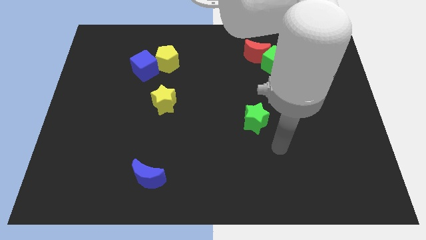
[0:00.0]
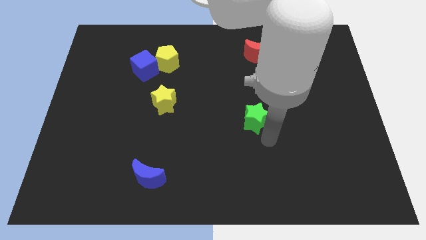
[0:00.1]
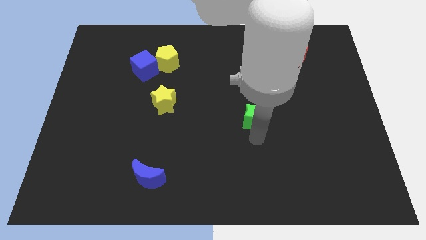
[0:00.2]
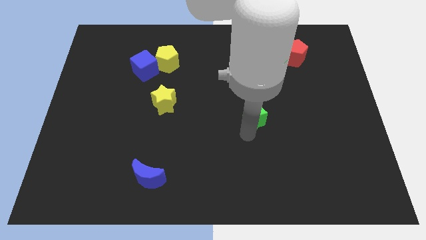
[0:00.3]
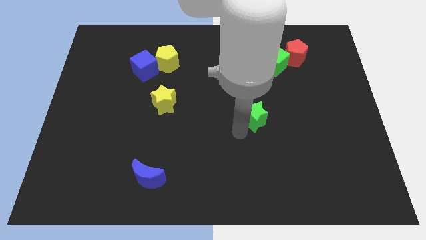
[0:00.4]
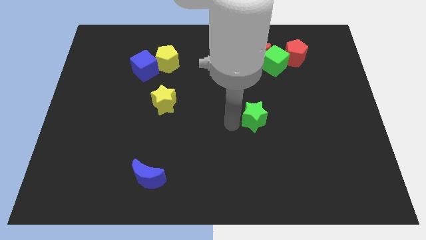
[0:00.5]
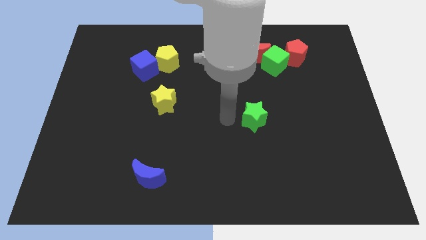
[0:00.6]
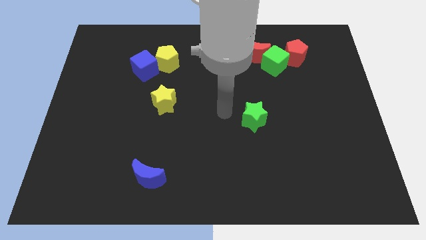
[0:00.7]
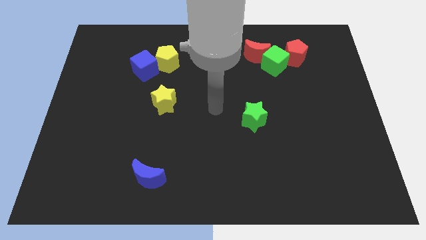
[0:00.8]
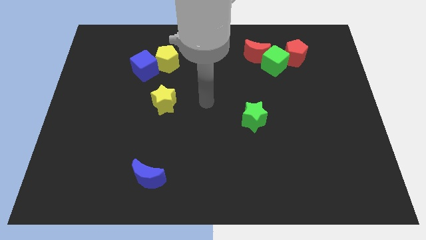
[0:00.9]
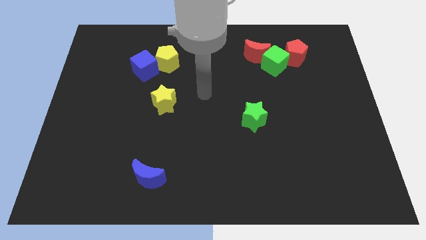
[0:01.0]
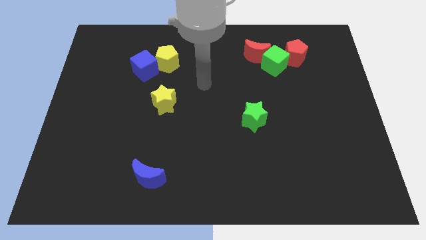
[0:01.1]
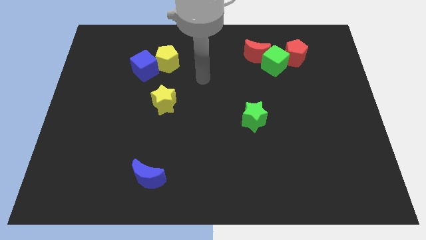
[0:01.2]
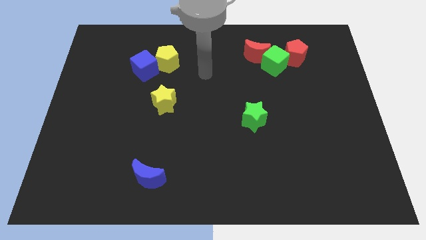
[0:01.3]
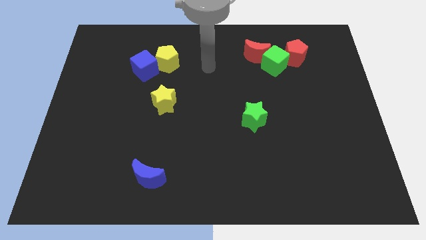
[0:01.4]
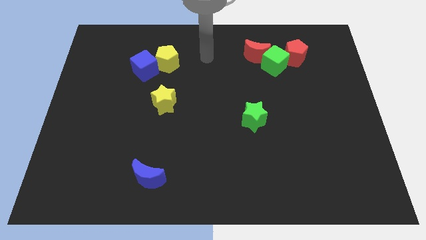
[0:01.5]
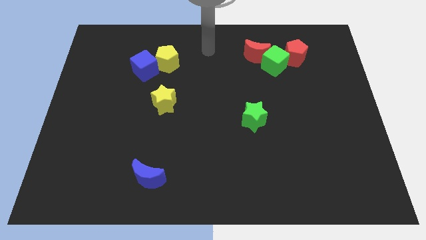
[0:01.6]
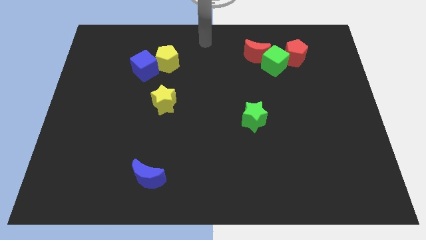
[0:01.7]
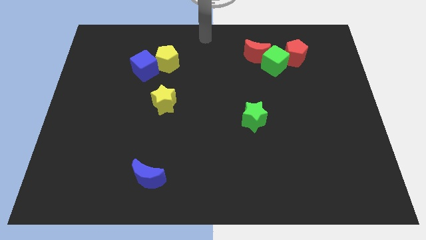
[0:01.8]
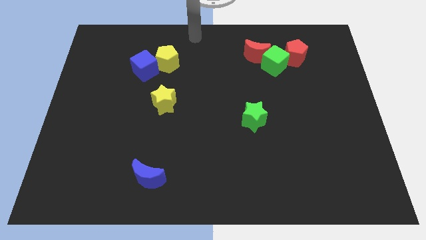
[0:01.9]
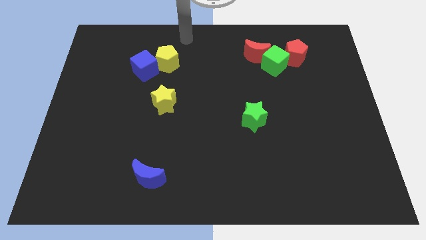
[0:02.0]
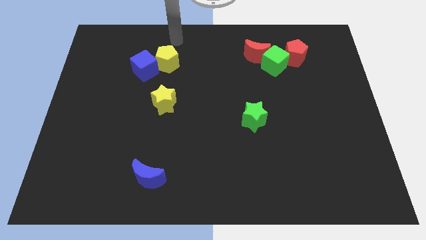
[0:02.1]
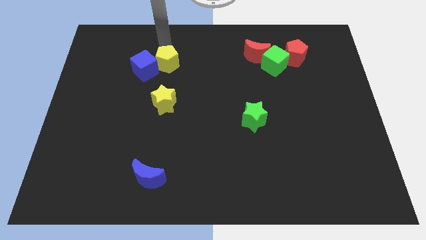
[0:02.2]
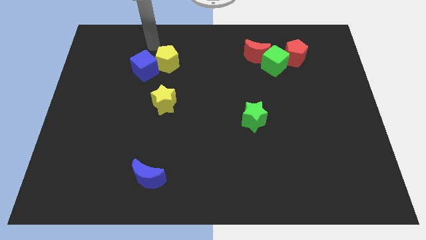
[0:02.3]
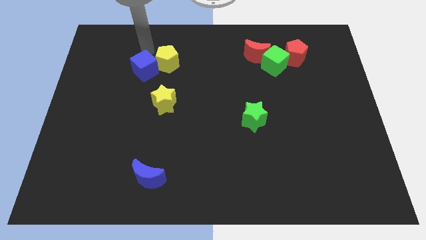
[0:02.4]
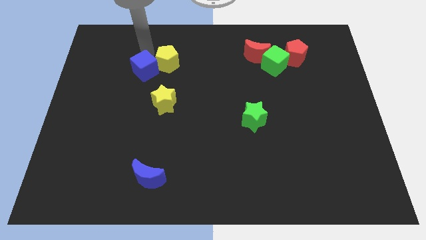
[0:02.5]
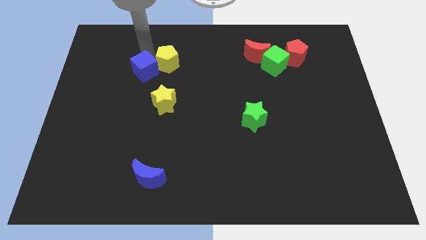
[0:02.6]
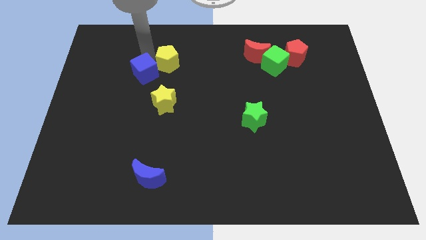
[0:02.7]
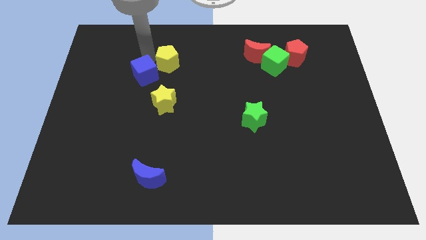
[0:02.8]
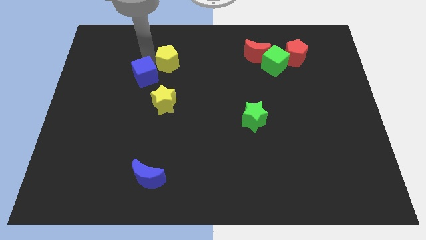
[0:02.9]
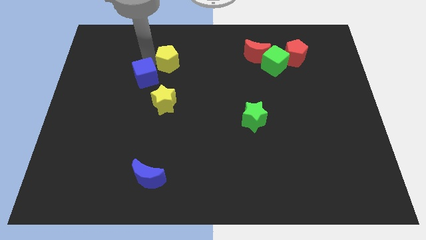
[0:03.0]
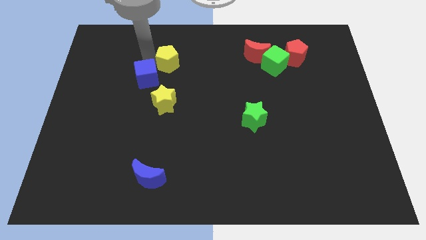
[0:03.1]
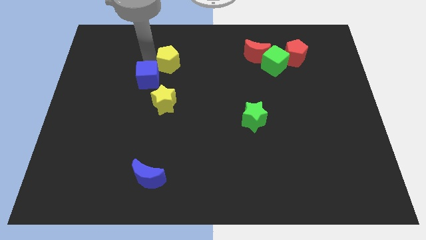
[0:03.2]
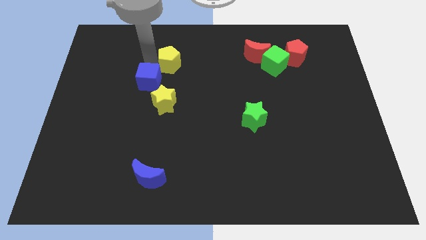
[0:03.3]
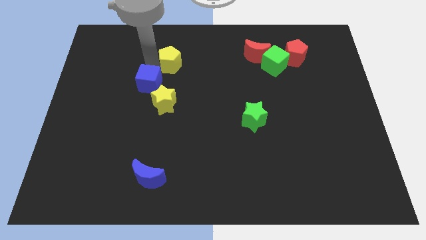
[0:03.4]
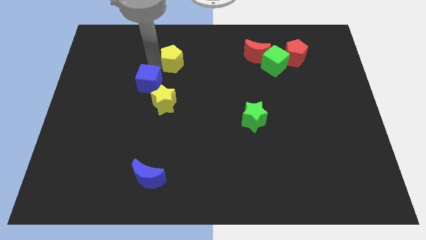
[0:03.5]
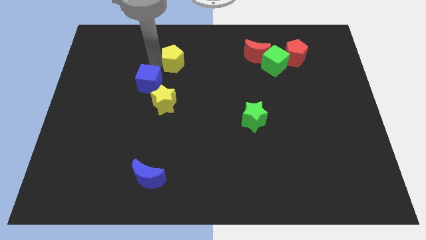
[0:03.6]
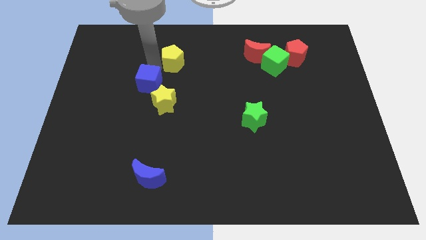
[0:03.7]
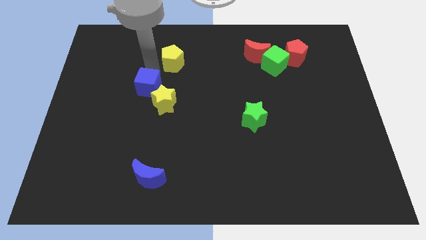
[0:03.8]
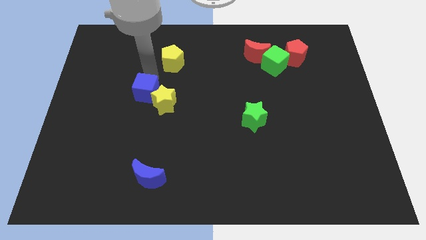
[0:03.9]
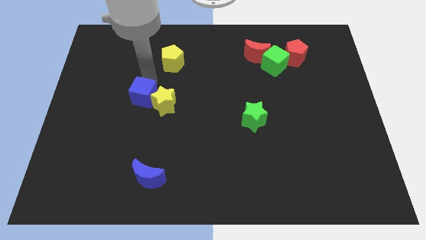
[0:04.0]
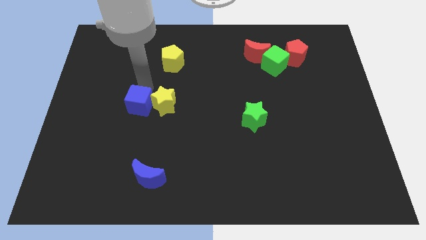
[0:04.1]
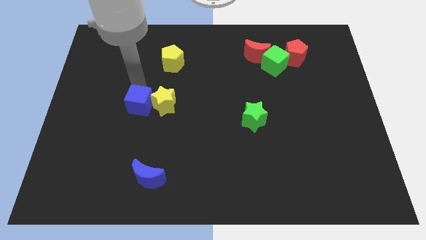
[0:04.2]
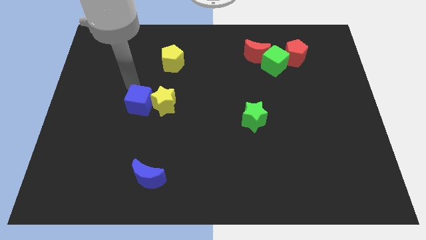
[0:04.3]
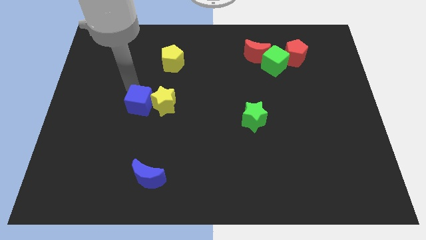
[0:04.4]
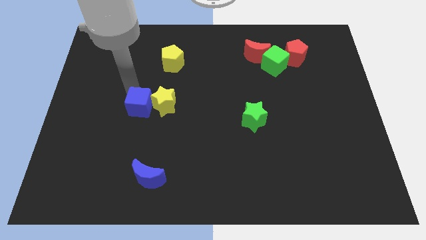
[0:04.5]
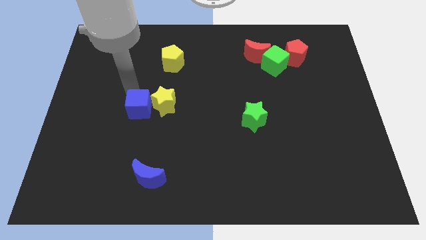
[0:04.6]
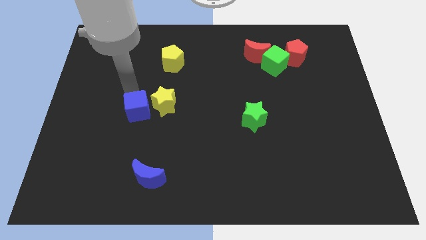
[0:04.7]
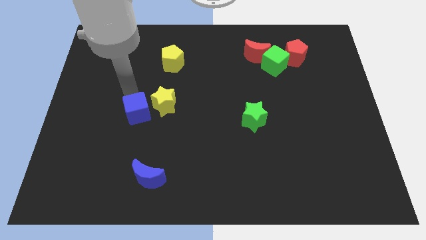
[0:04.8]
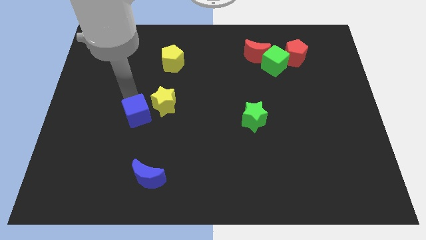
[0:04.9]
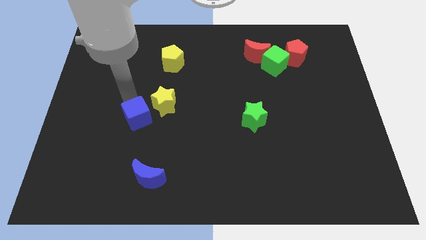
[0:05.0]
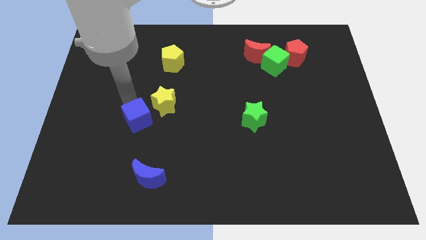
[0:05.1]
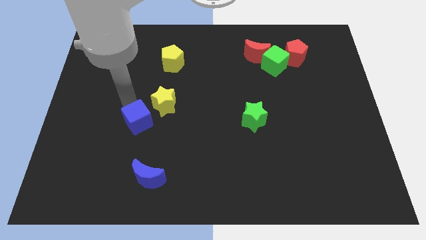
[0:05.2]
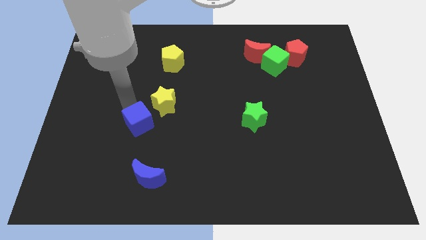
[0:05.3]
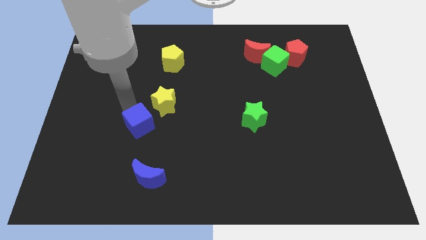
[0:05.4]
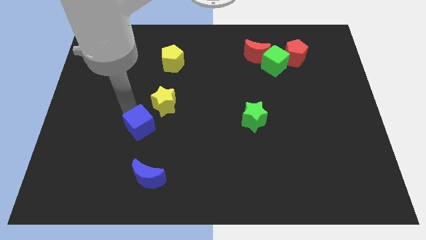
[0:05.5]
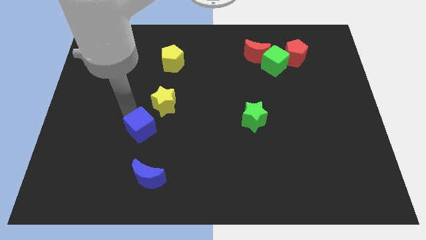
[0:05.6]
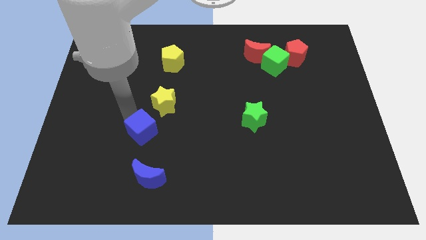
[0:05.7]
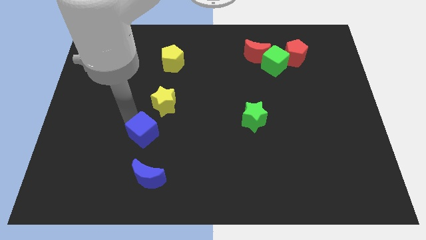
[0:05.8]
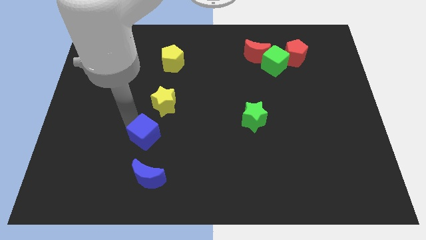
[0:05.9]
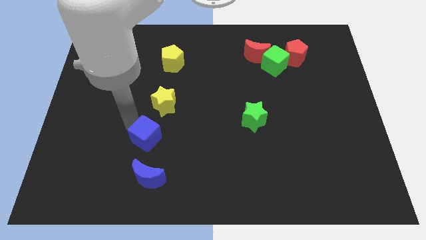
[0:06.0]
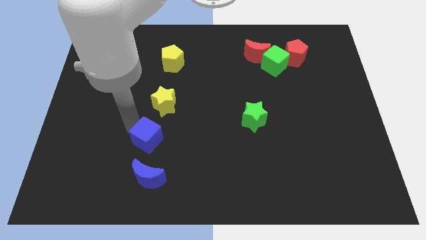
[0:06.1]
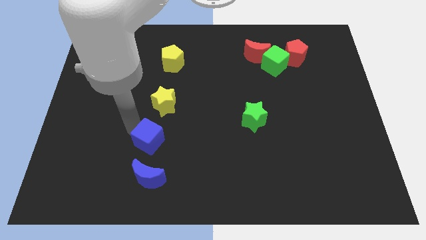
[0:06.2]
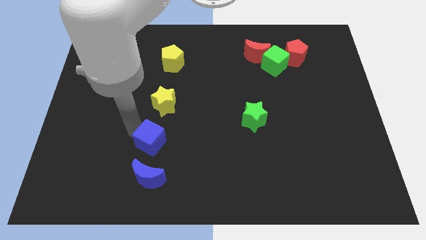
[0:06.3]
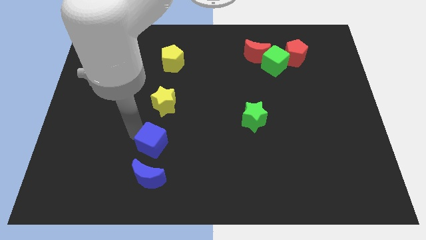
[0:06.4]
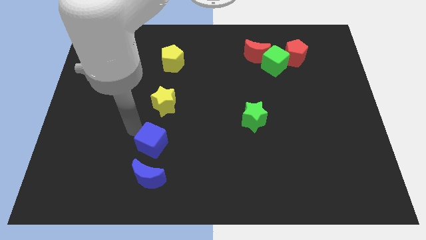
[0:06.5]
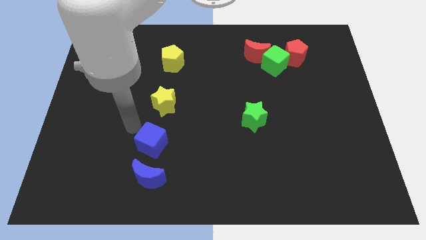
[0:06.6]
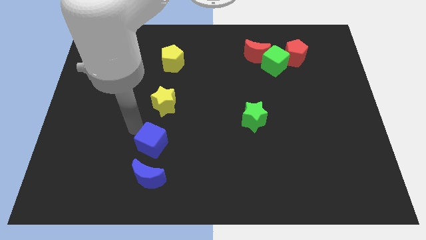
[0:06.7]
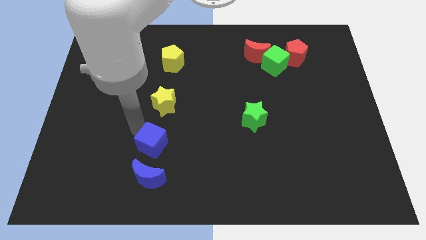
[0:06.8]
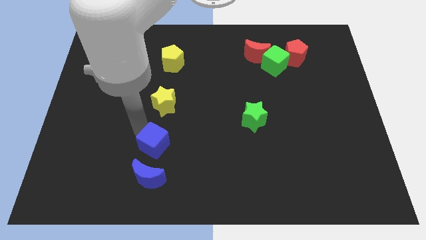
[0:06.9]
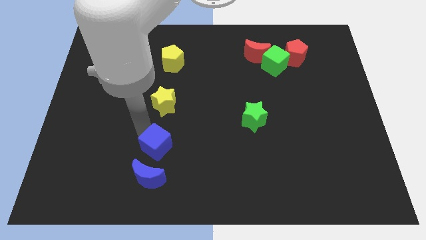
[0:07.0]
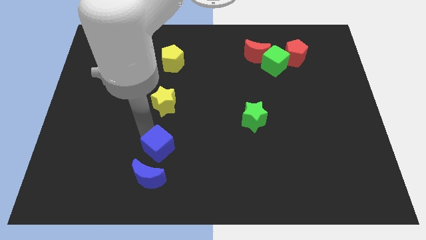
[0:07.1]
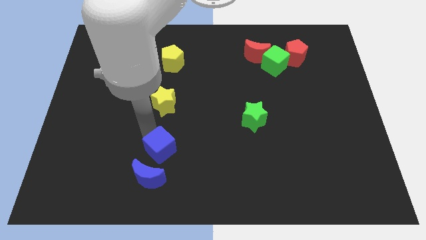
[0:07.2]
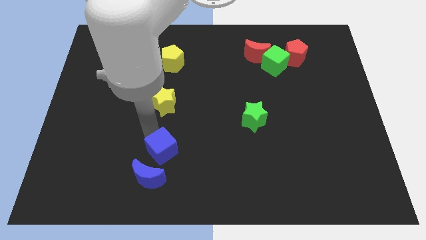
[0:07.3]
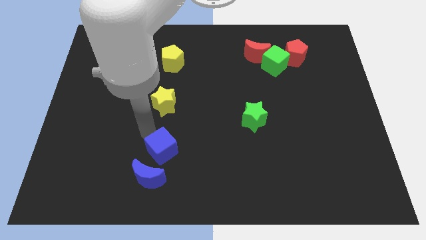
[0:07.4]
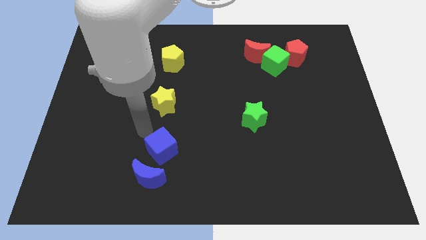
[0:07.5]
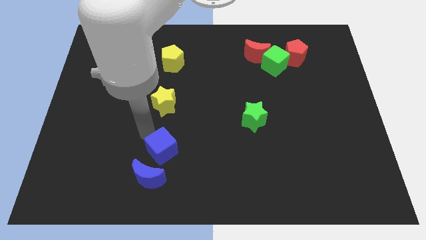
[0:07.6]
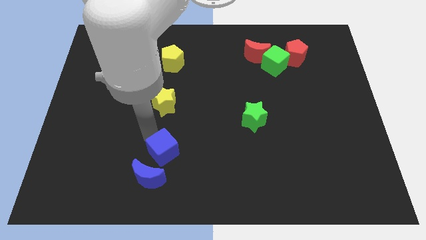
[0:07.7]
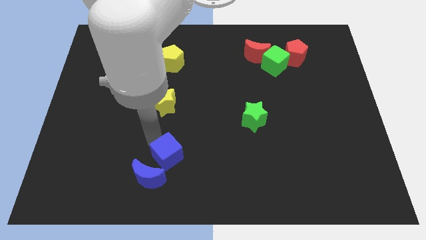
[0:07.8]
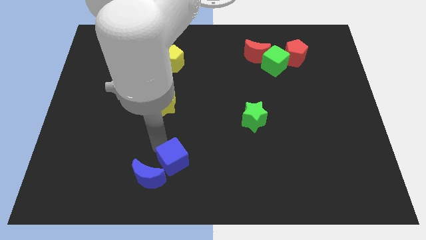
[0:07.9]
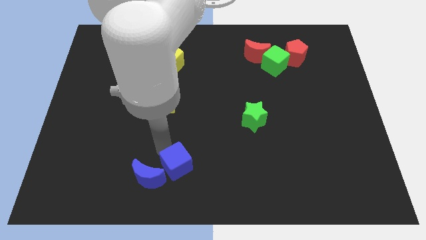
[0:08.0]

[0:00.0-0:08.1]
put the blue cube to the bottom
